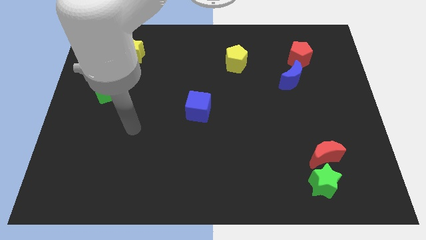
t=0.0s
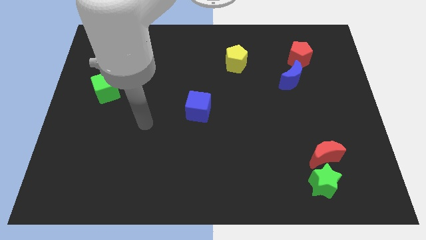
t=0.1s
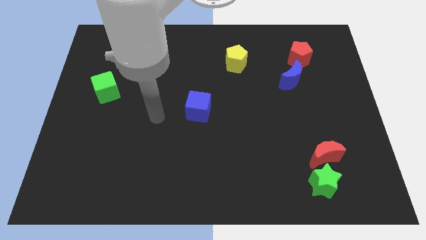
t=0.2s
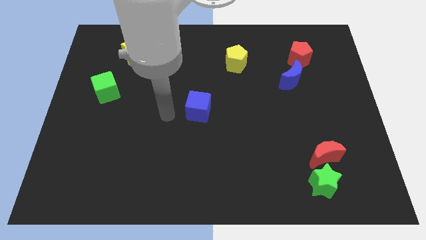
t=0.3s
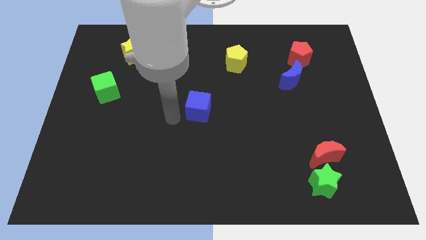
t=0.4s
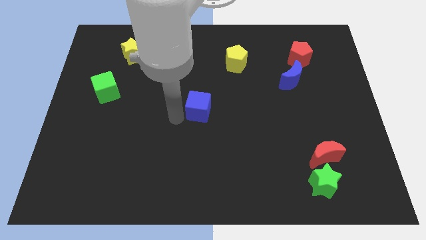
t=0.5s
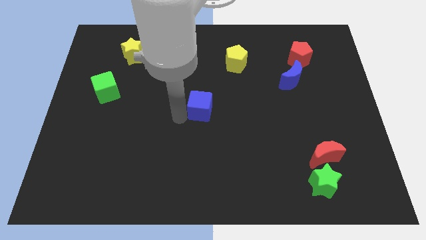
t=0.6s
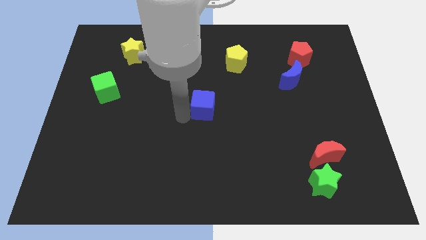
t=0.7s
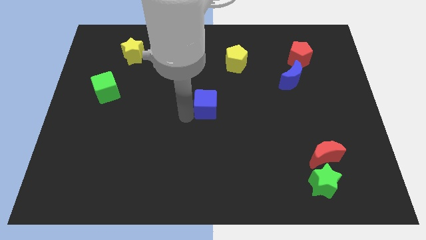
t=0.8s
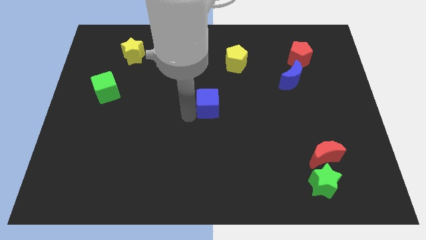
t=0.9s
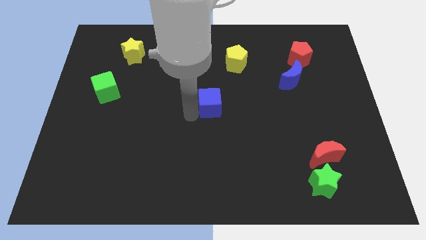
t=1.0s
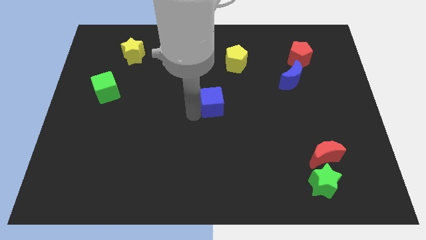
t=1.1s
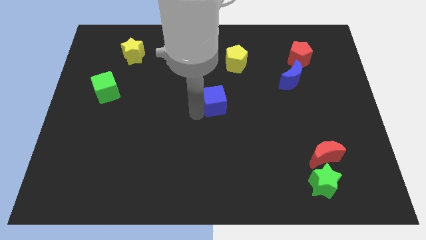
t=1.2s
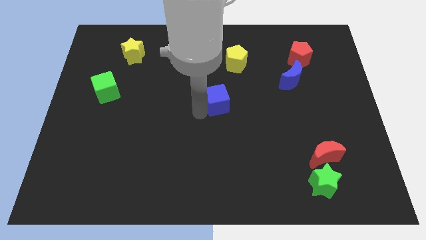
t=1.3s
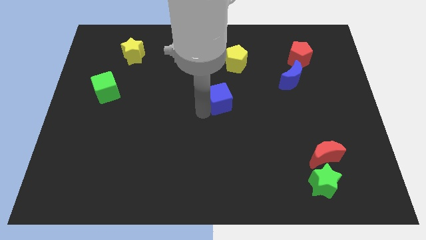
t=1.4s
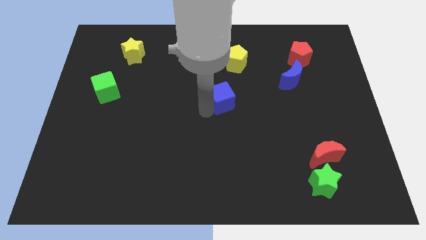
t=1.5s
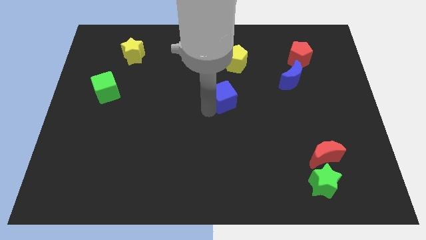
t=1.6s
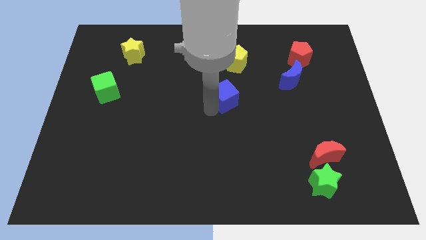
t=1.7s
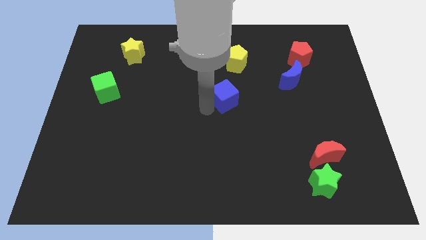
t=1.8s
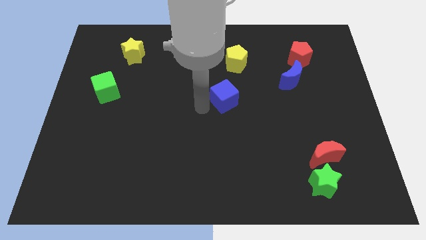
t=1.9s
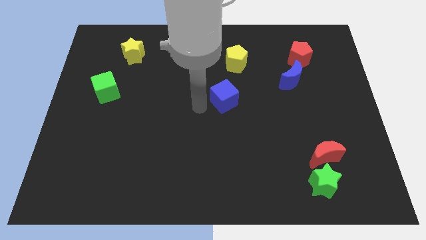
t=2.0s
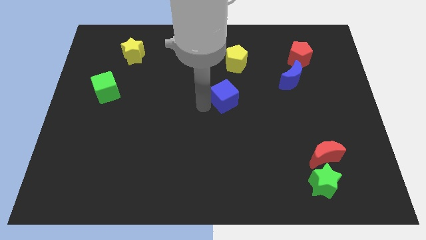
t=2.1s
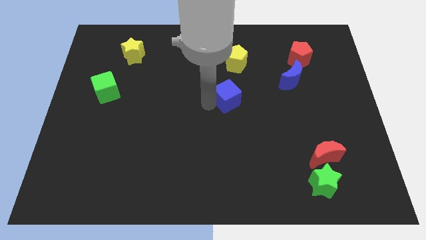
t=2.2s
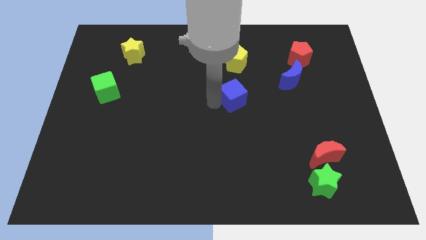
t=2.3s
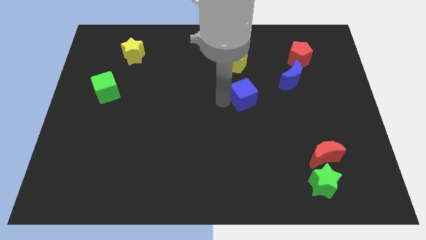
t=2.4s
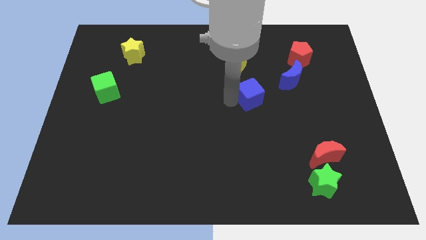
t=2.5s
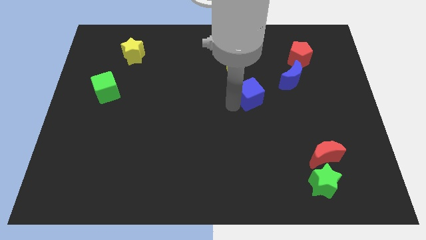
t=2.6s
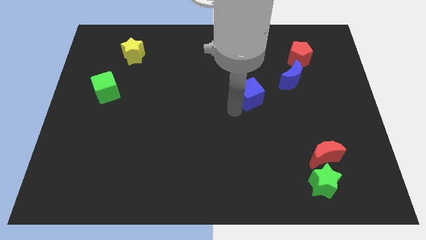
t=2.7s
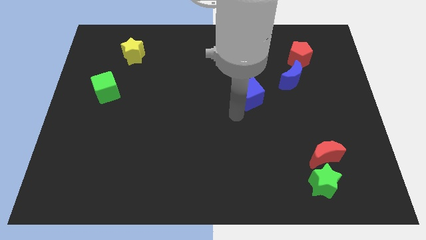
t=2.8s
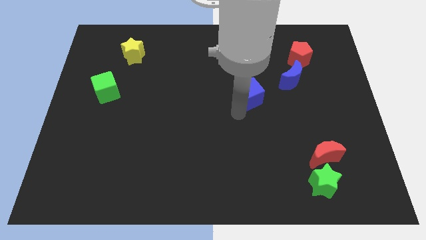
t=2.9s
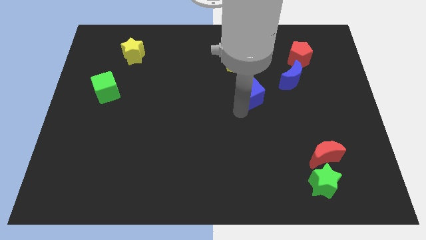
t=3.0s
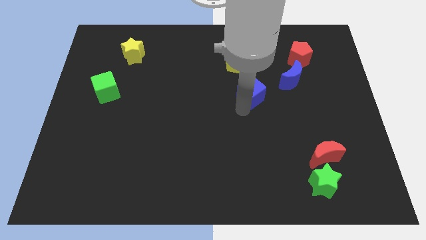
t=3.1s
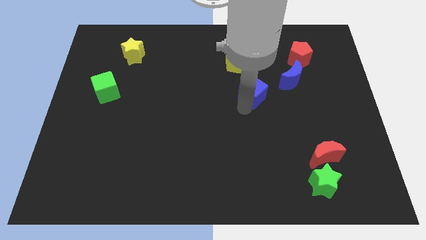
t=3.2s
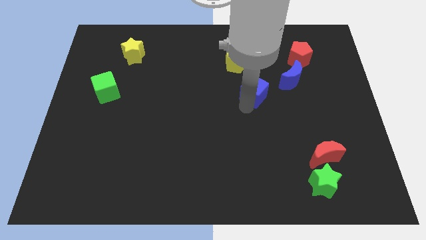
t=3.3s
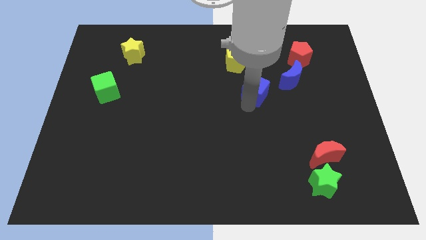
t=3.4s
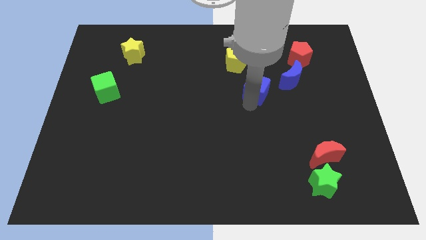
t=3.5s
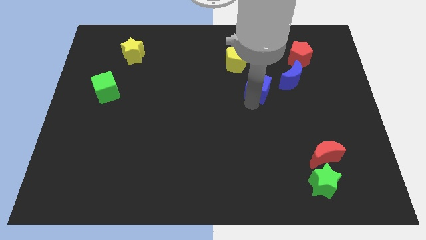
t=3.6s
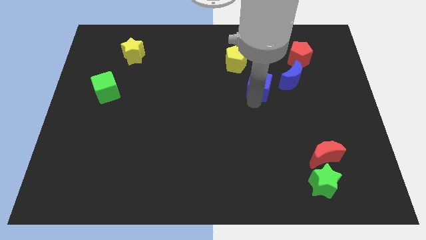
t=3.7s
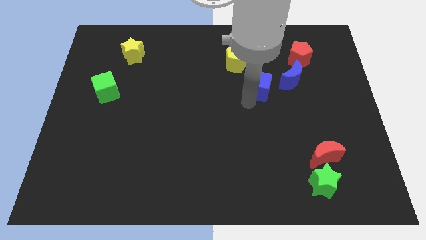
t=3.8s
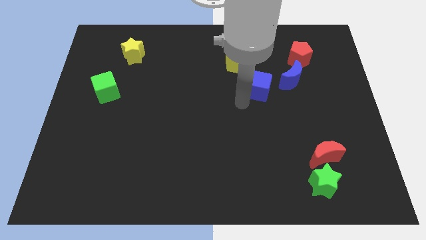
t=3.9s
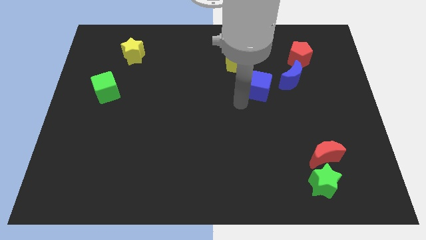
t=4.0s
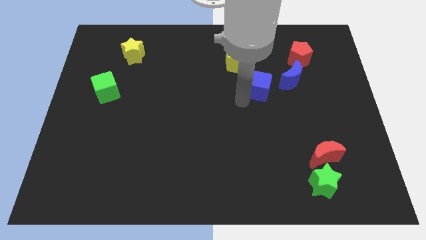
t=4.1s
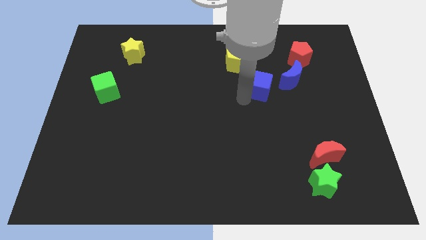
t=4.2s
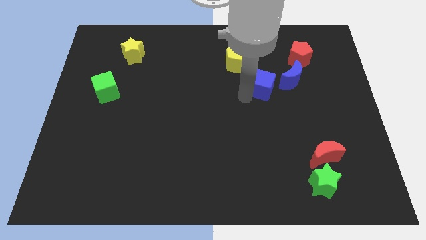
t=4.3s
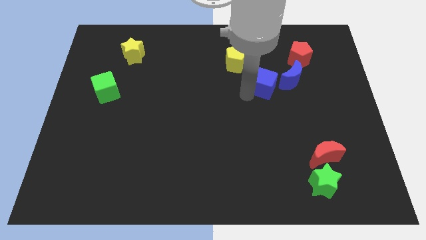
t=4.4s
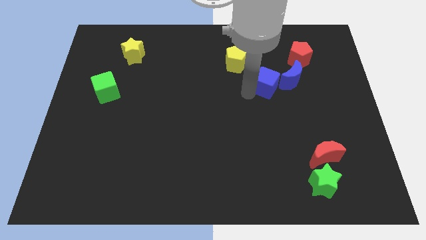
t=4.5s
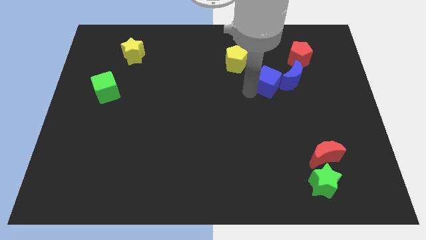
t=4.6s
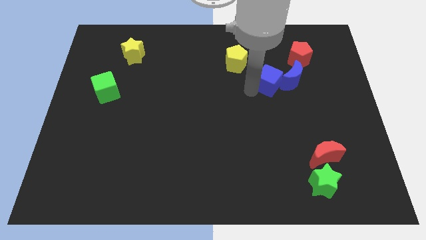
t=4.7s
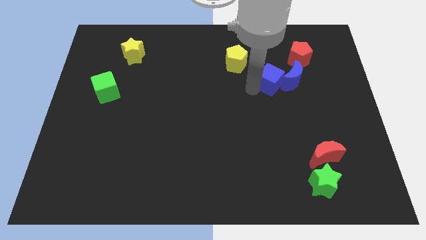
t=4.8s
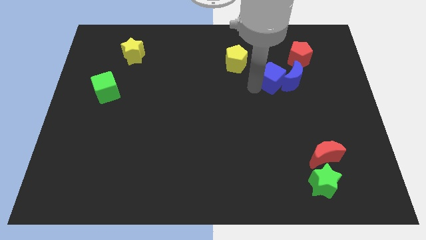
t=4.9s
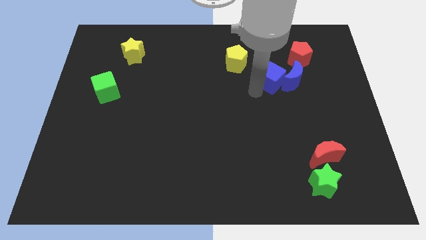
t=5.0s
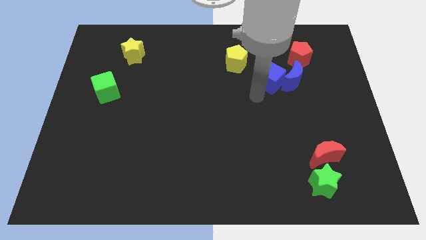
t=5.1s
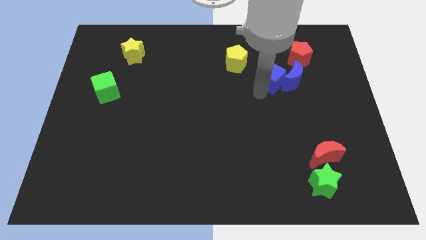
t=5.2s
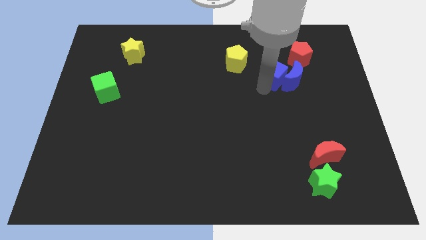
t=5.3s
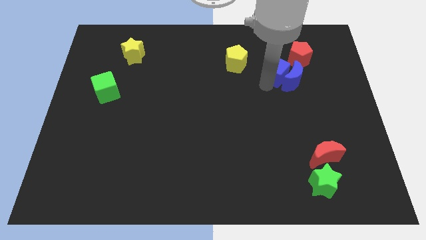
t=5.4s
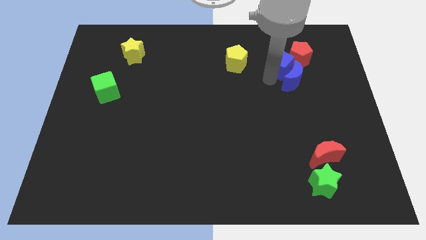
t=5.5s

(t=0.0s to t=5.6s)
slide the blue cube to the red pentagon
